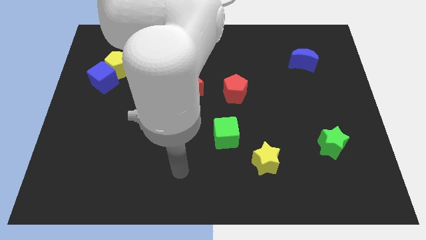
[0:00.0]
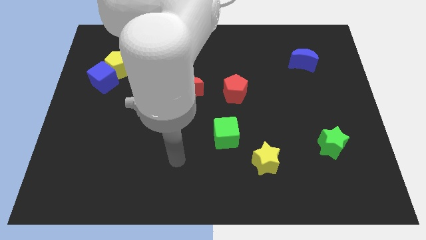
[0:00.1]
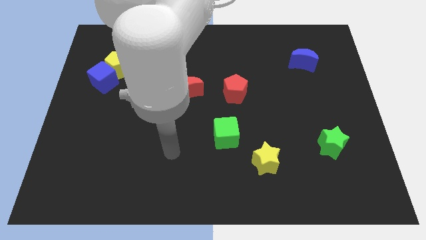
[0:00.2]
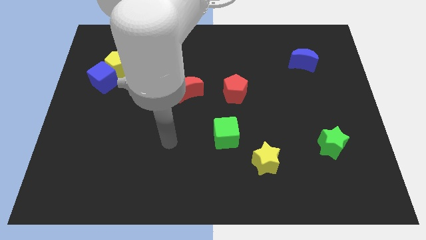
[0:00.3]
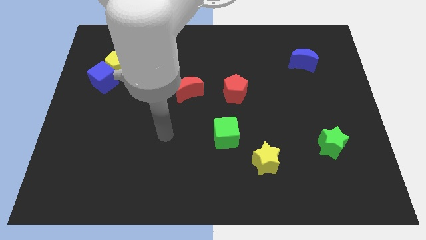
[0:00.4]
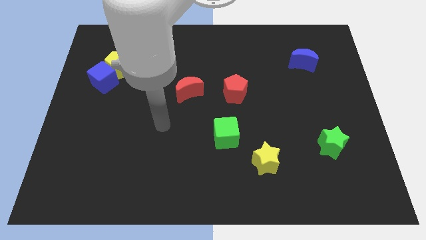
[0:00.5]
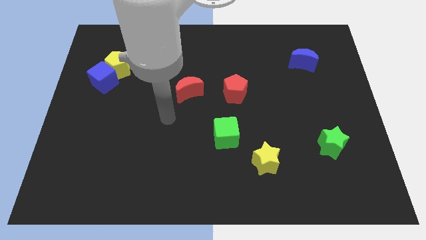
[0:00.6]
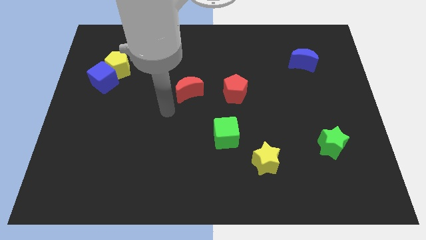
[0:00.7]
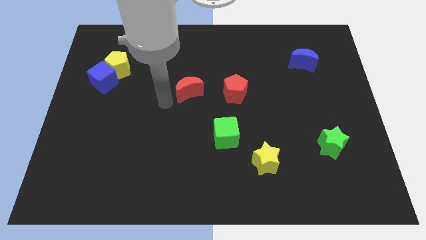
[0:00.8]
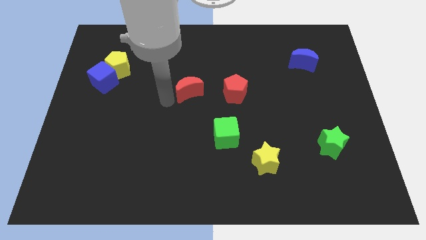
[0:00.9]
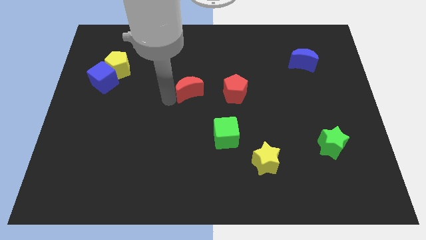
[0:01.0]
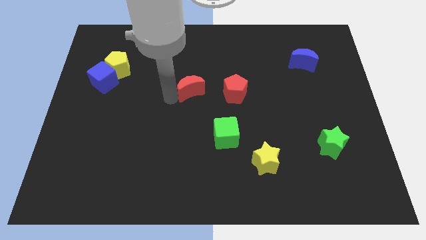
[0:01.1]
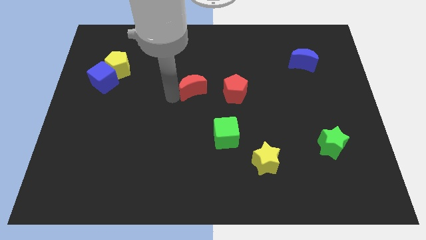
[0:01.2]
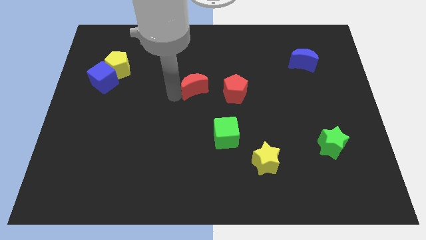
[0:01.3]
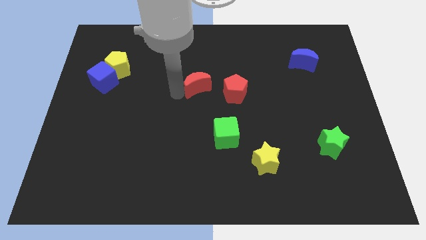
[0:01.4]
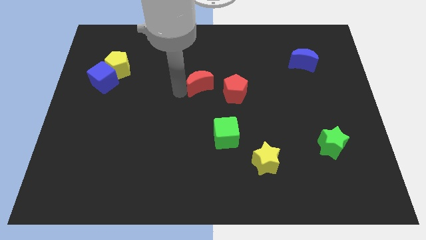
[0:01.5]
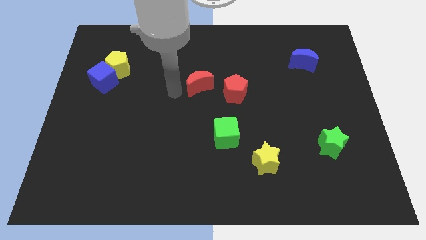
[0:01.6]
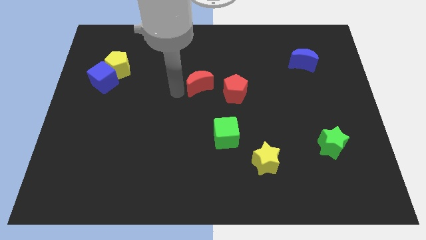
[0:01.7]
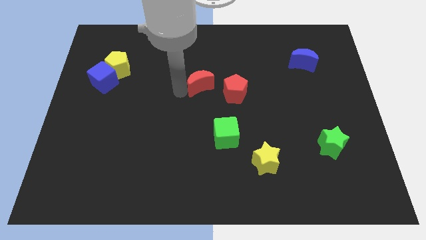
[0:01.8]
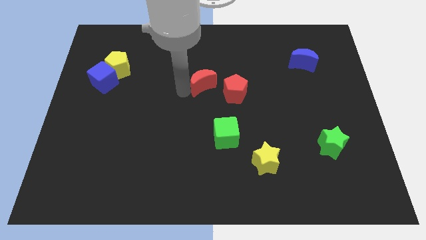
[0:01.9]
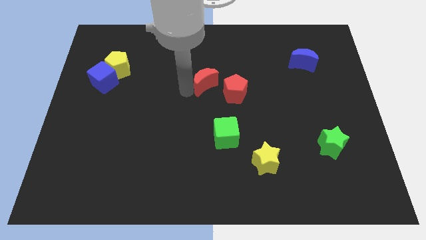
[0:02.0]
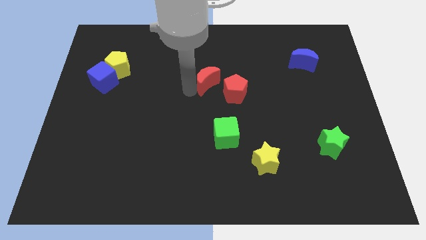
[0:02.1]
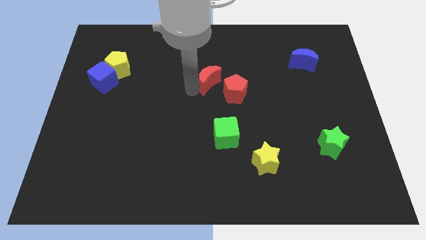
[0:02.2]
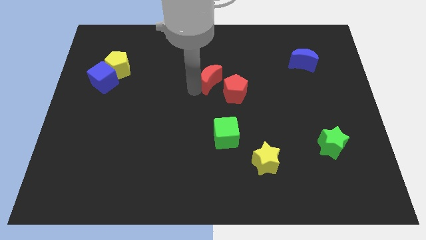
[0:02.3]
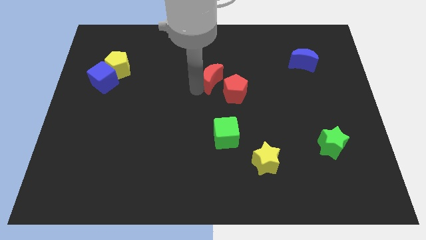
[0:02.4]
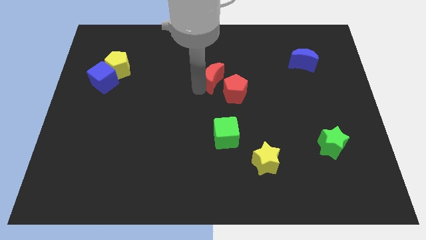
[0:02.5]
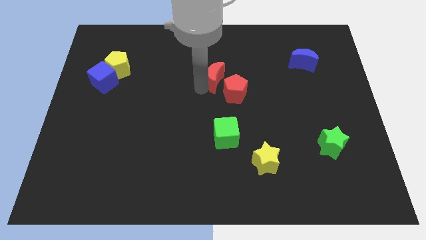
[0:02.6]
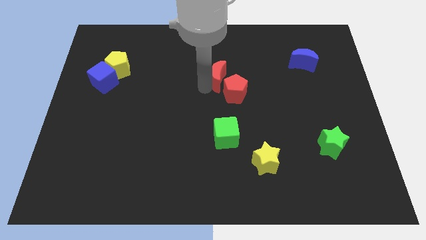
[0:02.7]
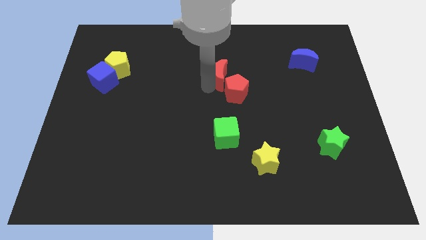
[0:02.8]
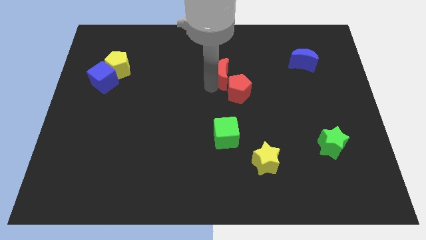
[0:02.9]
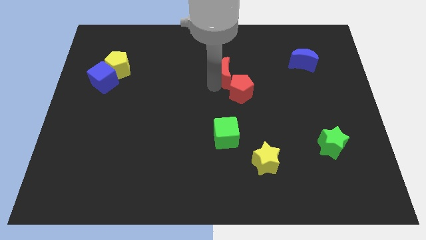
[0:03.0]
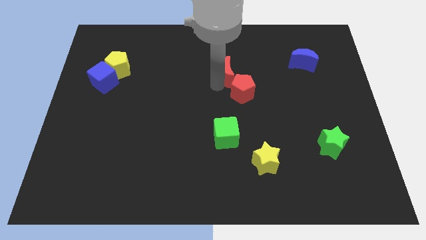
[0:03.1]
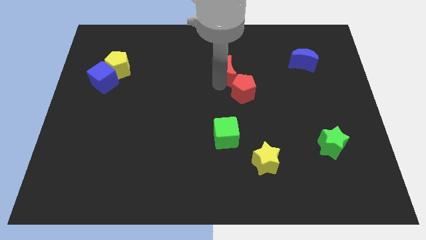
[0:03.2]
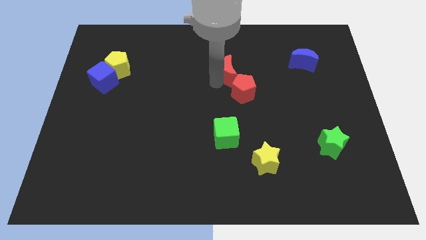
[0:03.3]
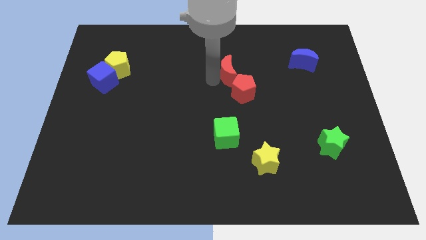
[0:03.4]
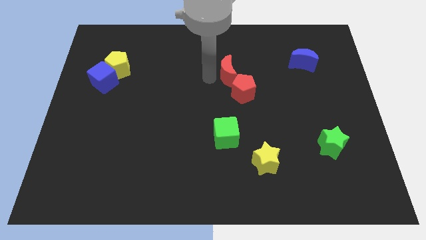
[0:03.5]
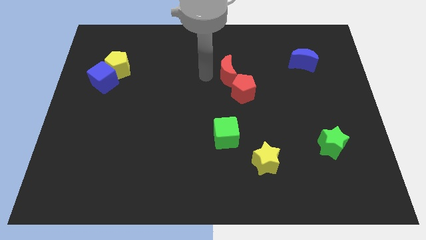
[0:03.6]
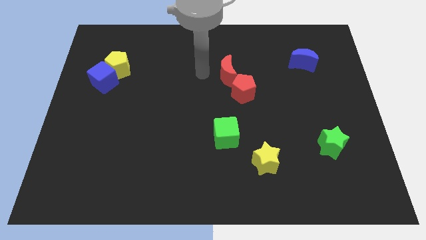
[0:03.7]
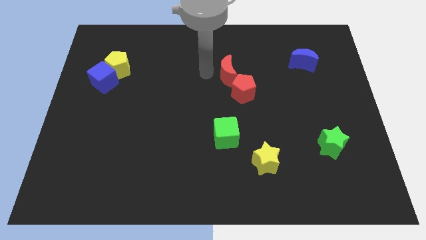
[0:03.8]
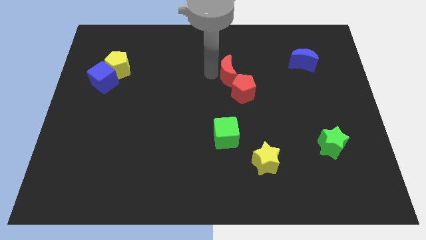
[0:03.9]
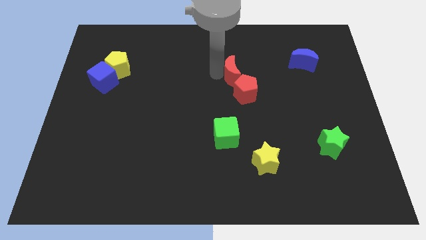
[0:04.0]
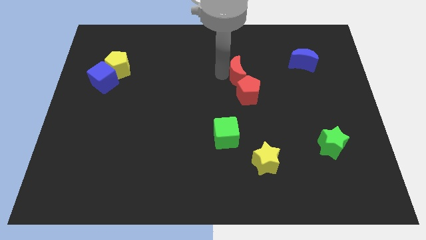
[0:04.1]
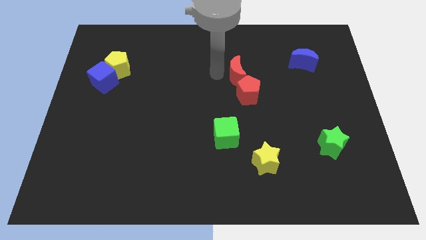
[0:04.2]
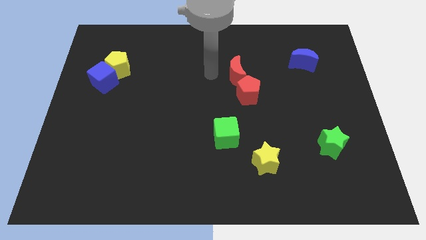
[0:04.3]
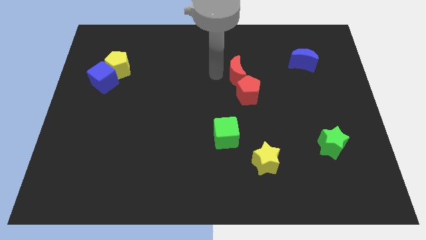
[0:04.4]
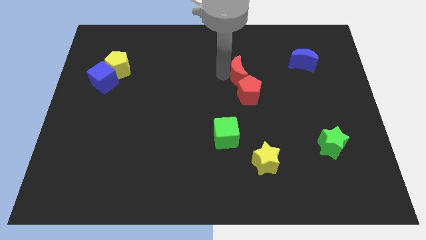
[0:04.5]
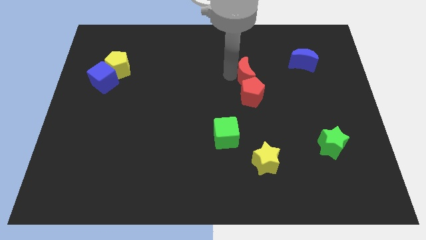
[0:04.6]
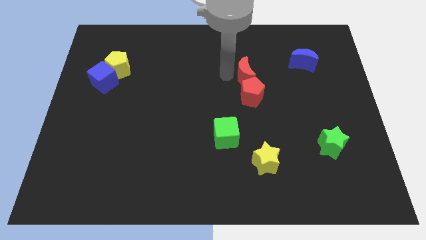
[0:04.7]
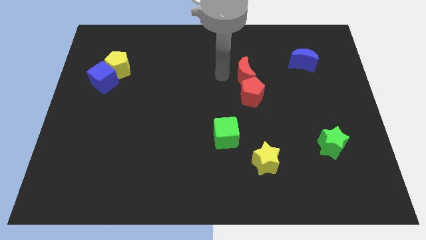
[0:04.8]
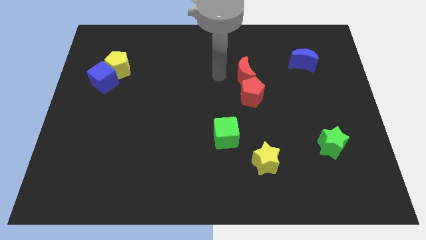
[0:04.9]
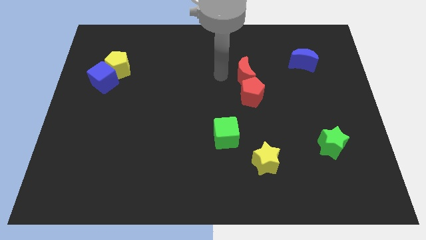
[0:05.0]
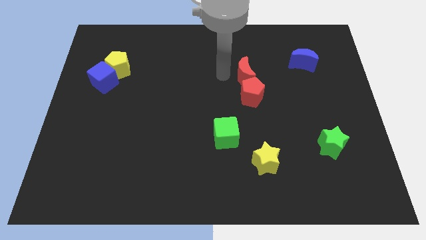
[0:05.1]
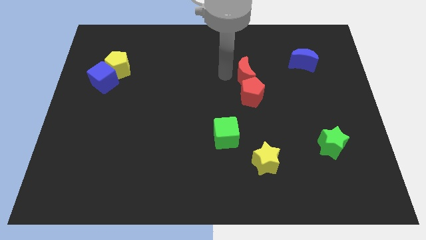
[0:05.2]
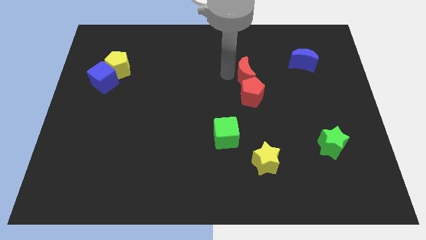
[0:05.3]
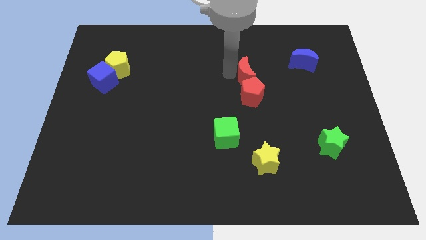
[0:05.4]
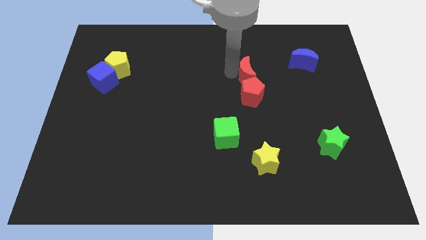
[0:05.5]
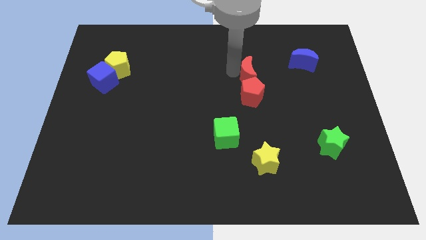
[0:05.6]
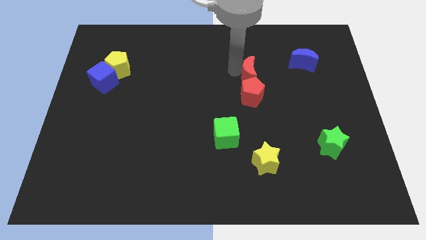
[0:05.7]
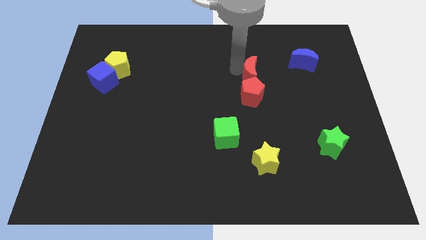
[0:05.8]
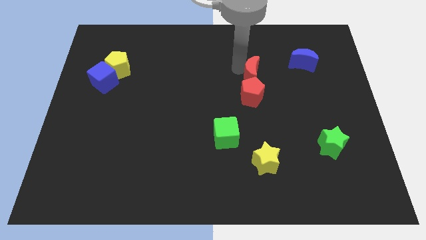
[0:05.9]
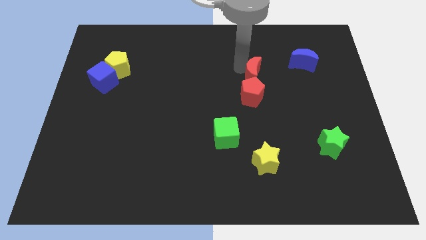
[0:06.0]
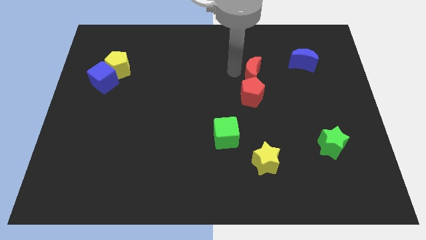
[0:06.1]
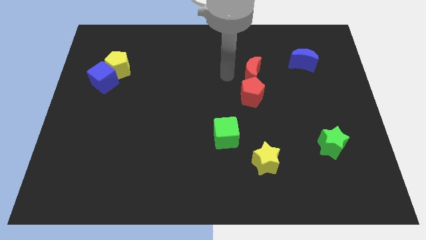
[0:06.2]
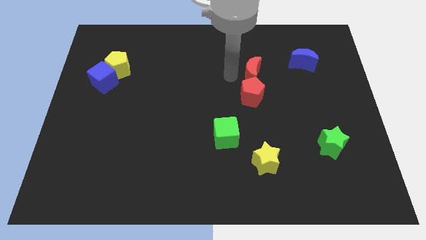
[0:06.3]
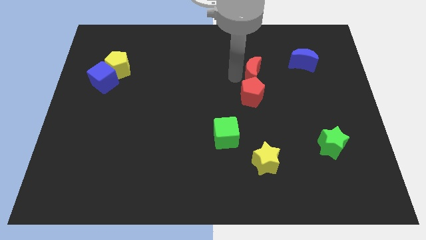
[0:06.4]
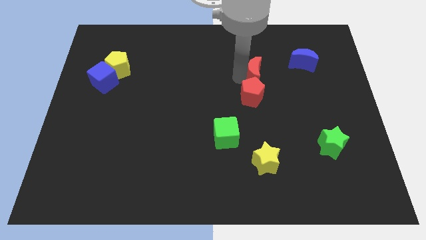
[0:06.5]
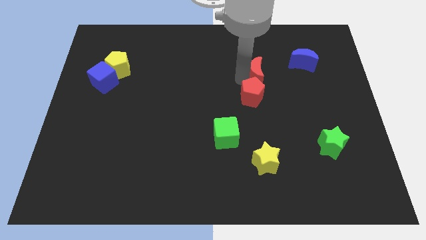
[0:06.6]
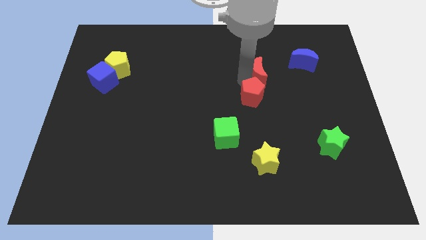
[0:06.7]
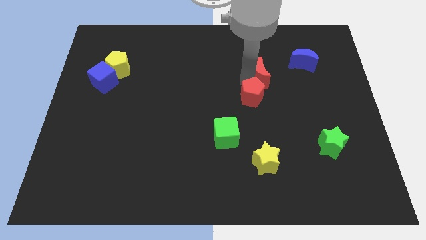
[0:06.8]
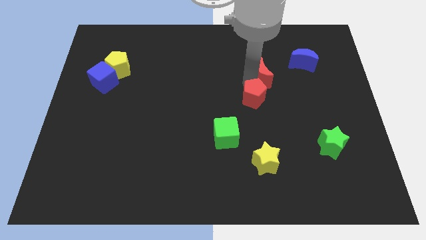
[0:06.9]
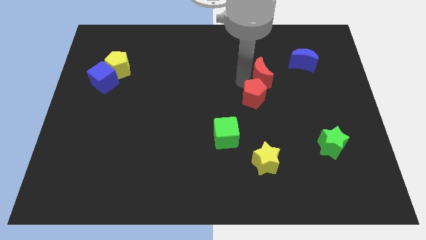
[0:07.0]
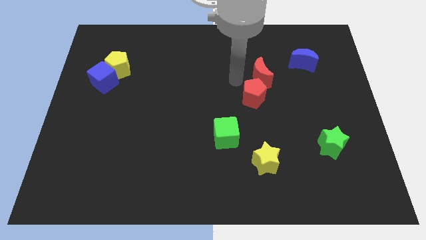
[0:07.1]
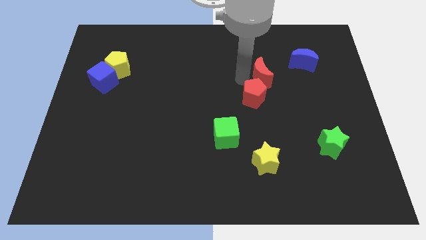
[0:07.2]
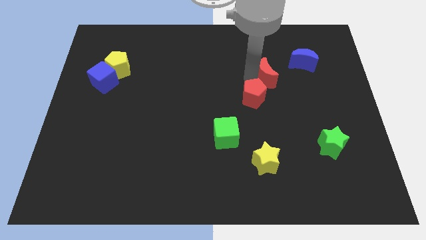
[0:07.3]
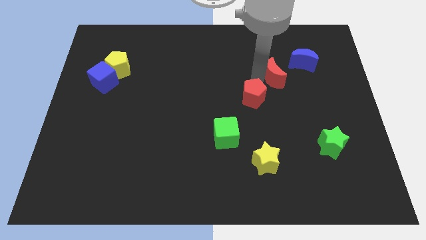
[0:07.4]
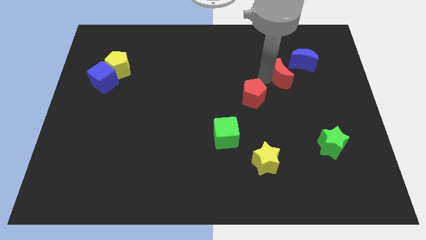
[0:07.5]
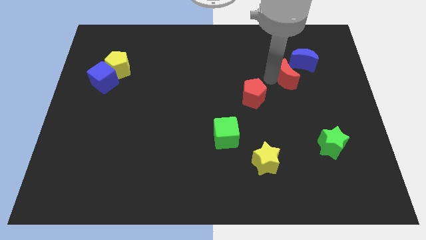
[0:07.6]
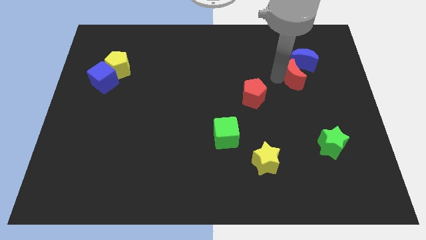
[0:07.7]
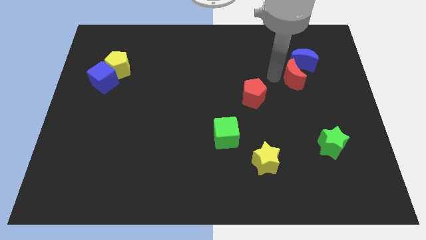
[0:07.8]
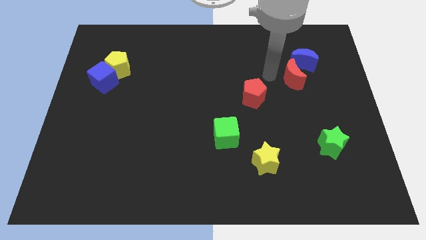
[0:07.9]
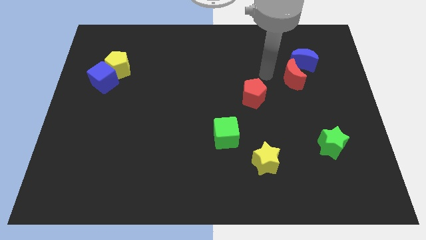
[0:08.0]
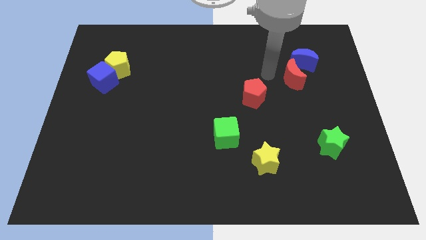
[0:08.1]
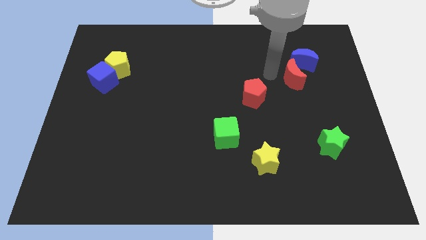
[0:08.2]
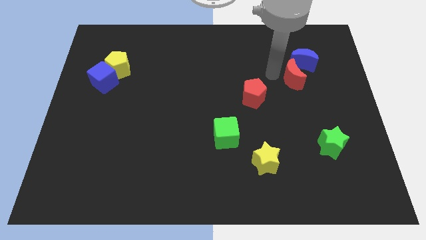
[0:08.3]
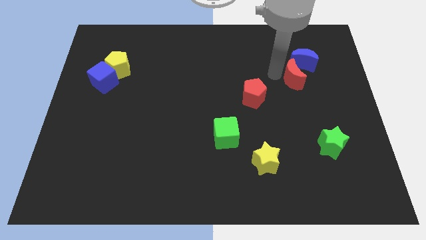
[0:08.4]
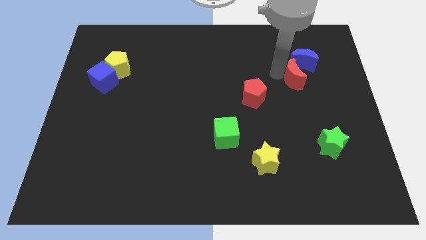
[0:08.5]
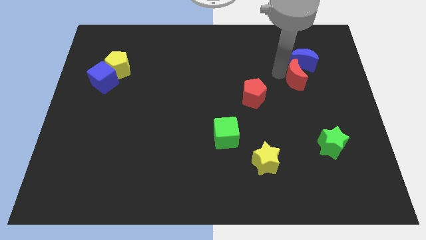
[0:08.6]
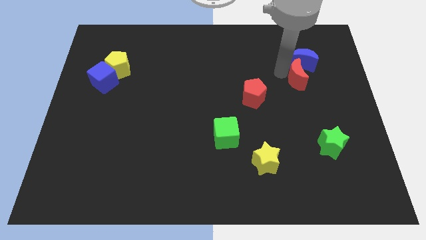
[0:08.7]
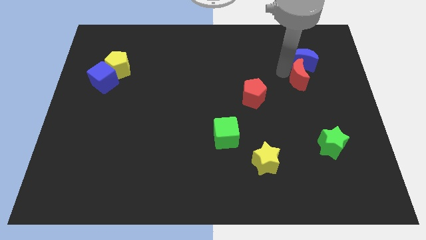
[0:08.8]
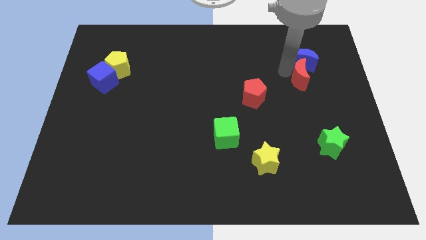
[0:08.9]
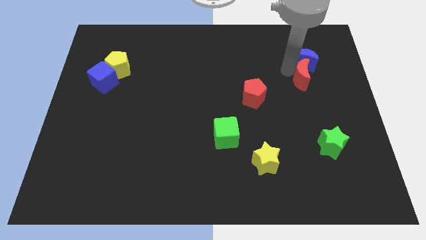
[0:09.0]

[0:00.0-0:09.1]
slide the red moon to the bottom right side of the blue moon
